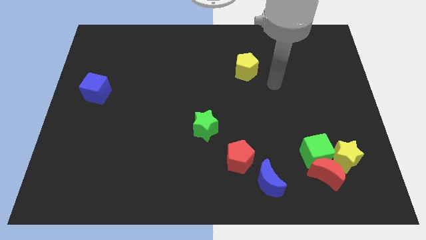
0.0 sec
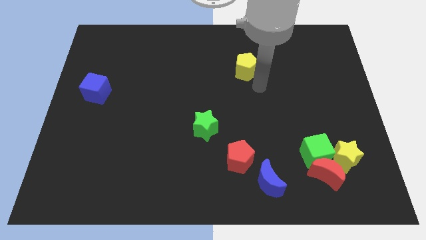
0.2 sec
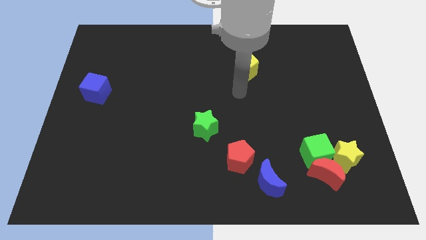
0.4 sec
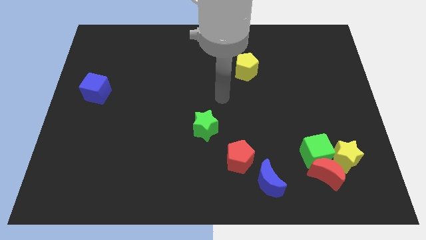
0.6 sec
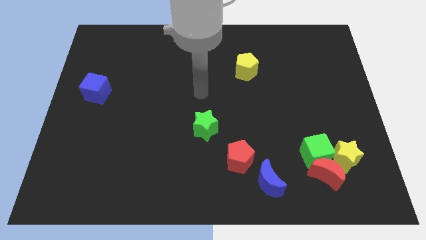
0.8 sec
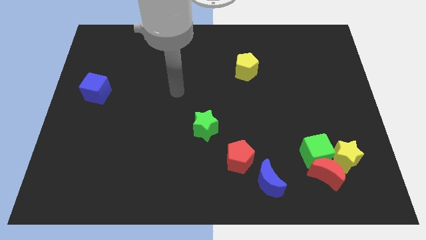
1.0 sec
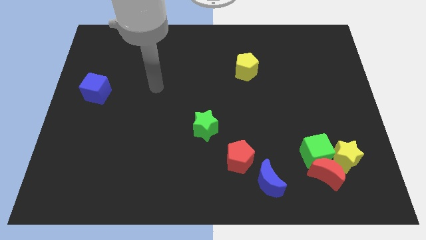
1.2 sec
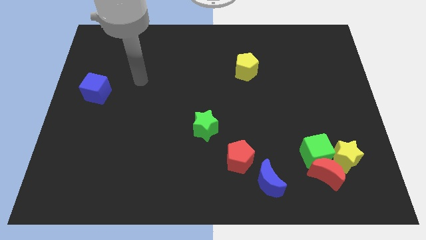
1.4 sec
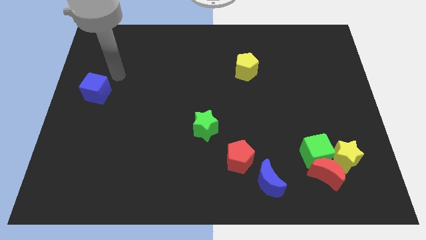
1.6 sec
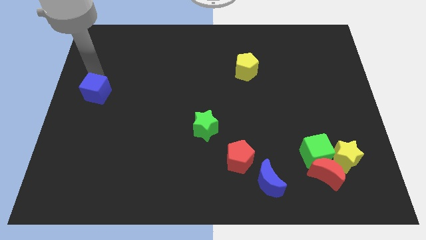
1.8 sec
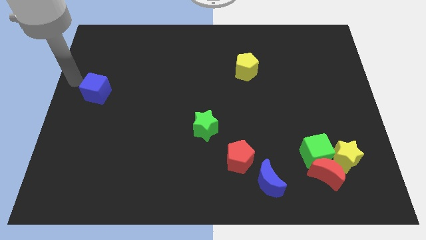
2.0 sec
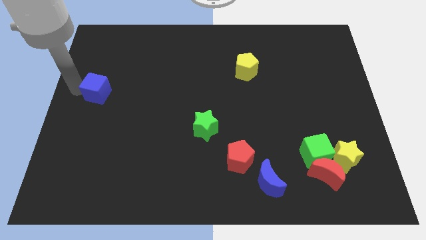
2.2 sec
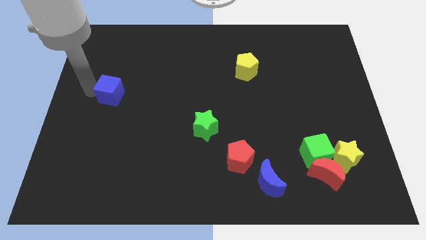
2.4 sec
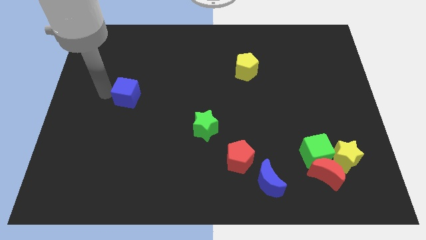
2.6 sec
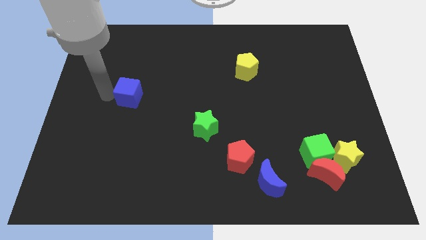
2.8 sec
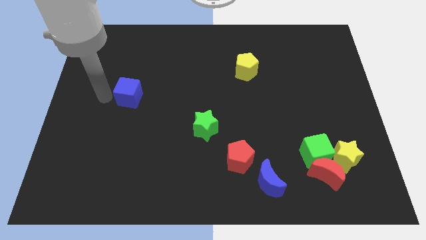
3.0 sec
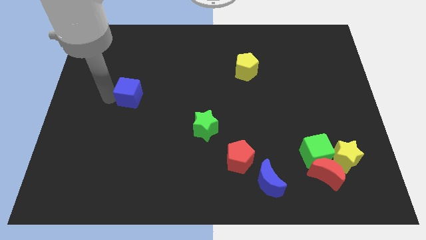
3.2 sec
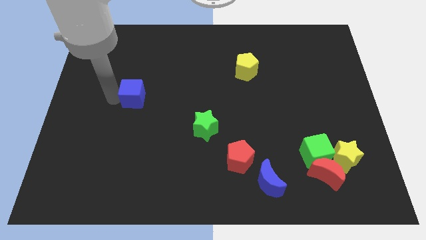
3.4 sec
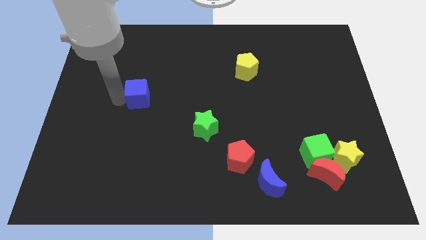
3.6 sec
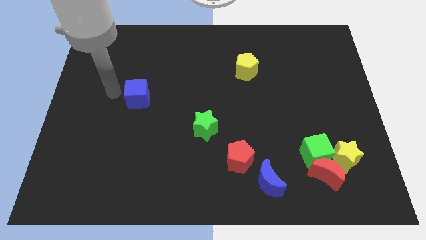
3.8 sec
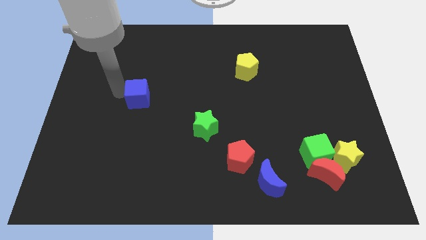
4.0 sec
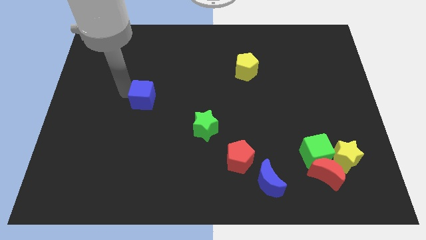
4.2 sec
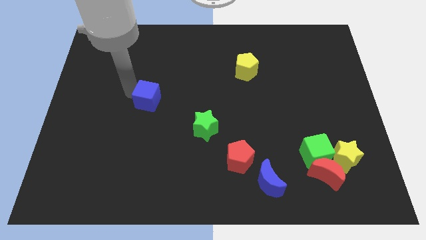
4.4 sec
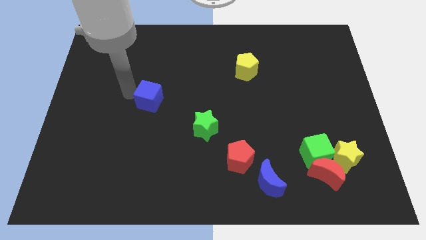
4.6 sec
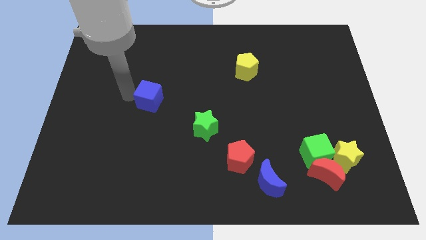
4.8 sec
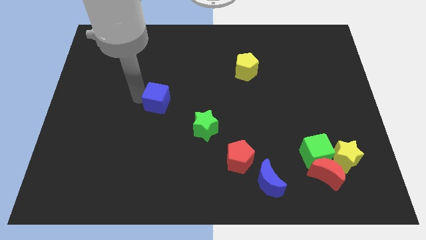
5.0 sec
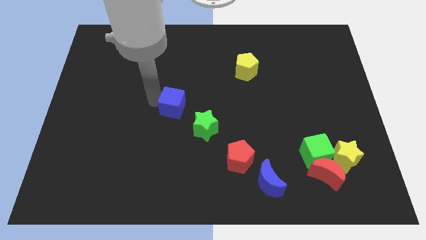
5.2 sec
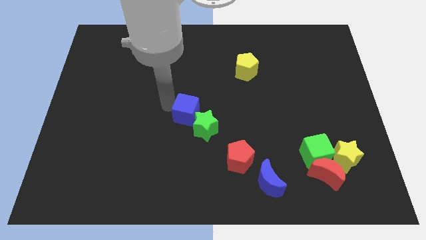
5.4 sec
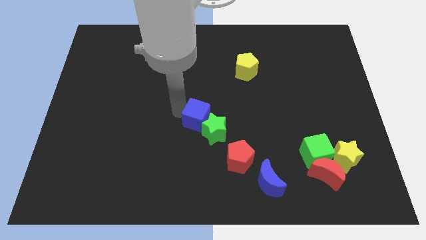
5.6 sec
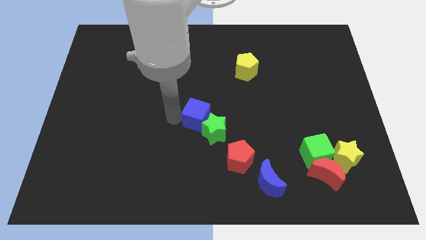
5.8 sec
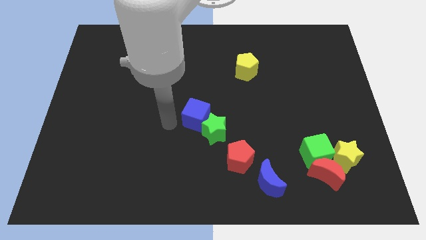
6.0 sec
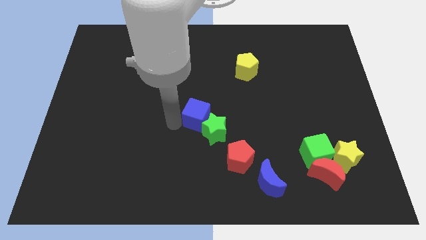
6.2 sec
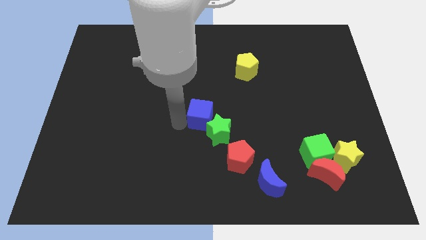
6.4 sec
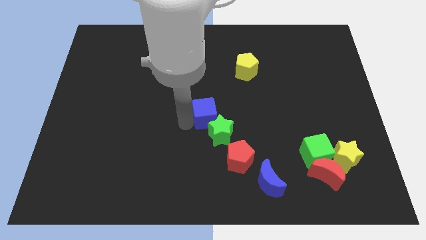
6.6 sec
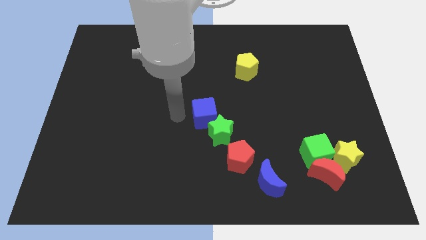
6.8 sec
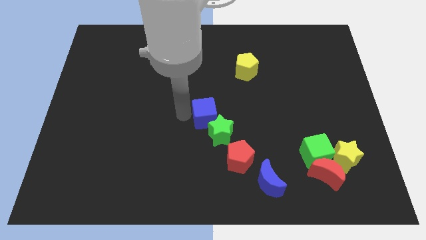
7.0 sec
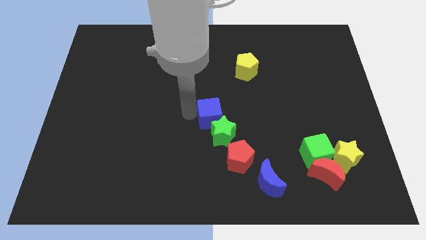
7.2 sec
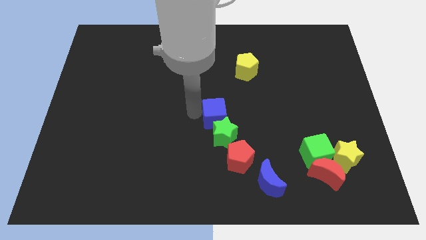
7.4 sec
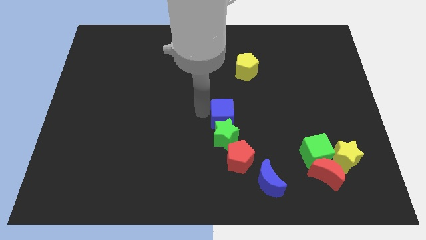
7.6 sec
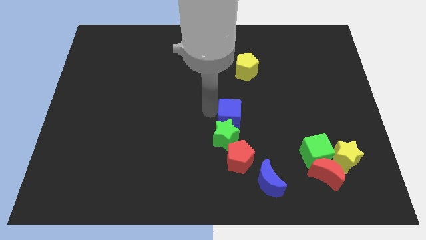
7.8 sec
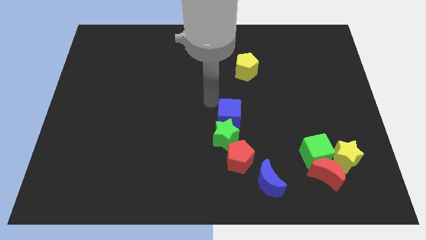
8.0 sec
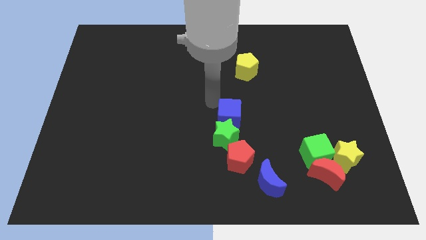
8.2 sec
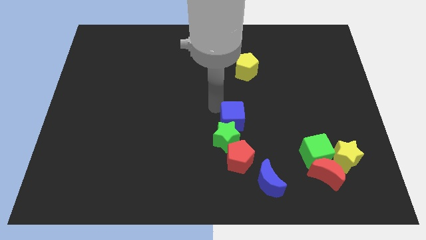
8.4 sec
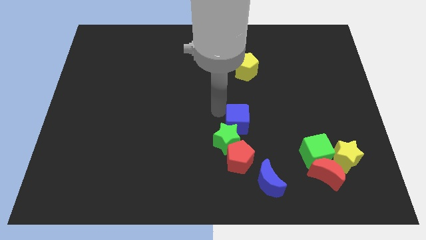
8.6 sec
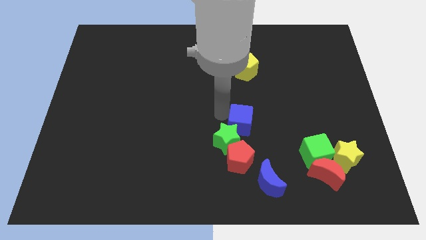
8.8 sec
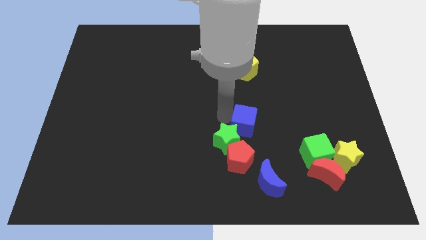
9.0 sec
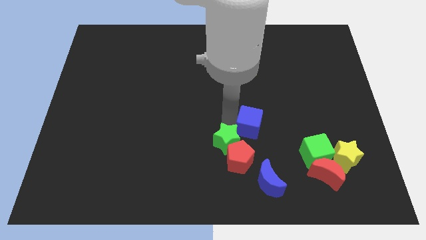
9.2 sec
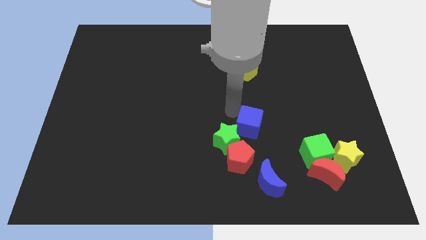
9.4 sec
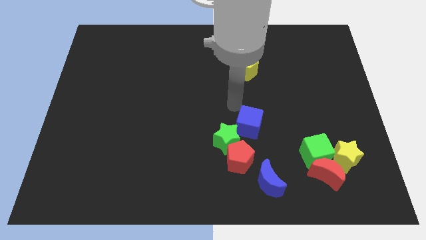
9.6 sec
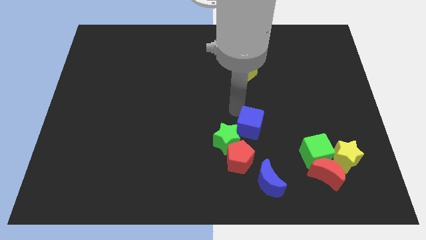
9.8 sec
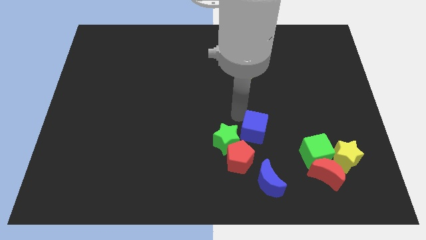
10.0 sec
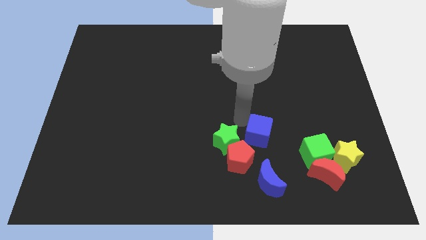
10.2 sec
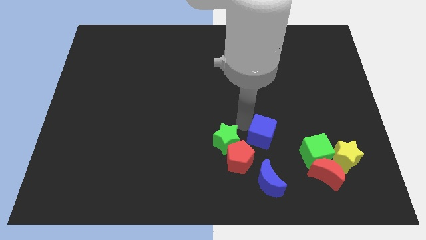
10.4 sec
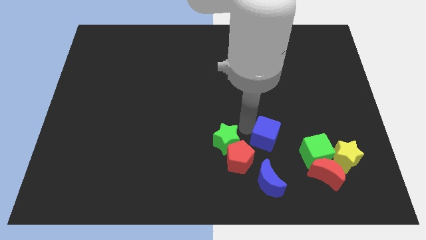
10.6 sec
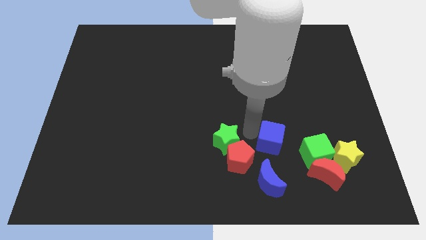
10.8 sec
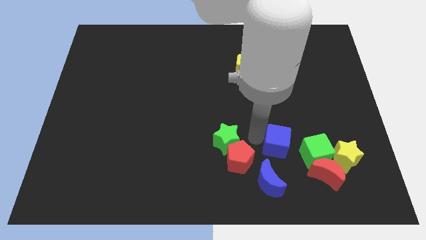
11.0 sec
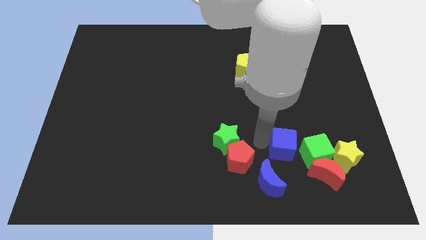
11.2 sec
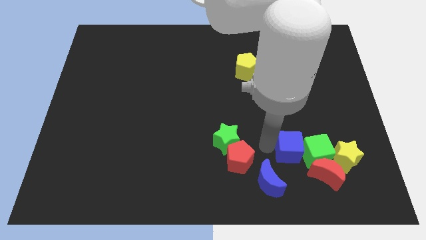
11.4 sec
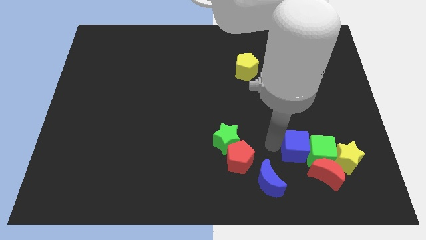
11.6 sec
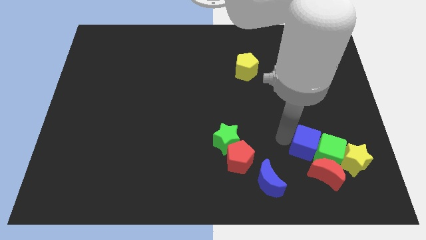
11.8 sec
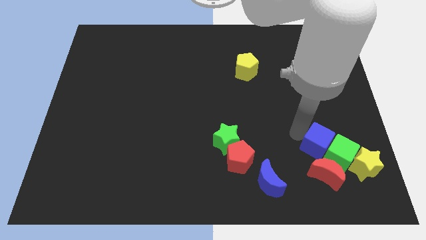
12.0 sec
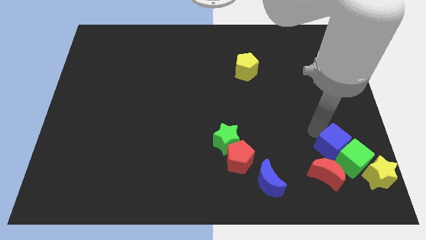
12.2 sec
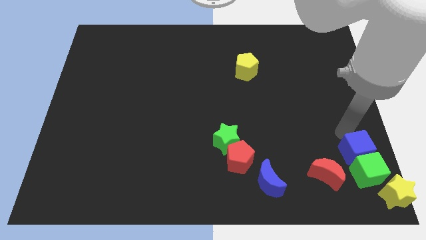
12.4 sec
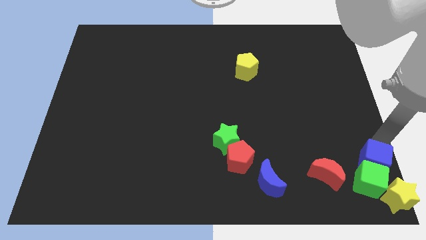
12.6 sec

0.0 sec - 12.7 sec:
move the blue cube to the bottom right

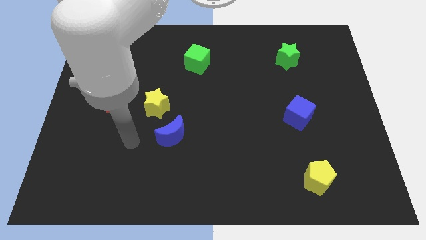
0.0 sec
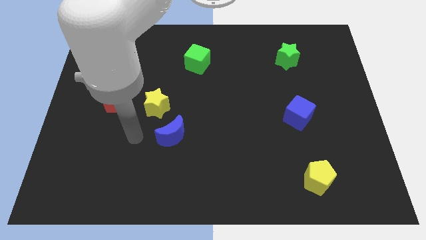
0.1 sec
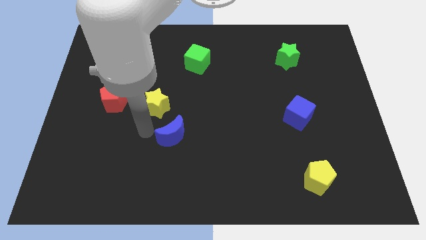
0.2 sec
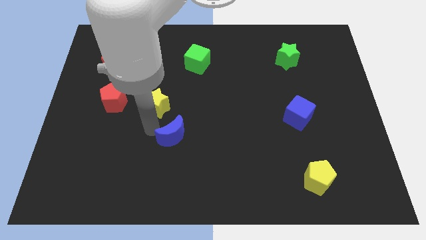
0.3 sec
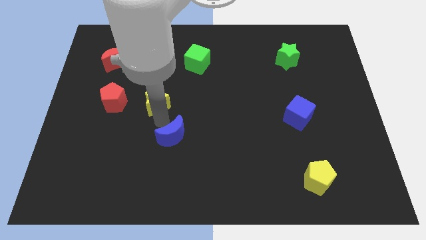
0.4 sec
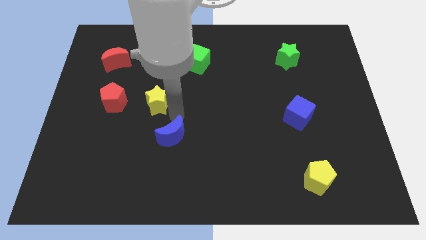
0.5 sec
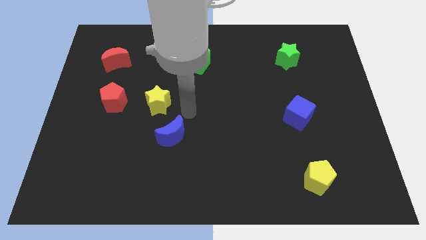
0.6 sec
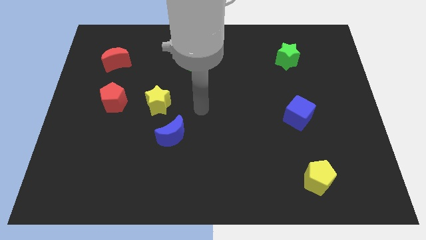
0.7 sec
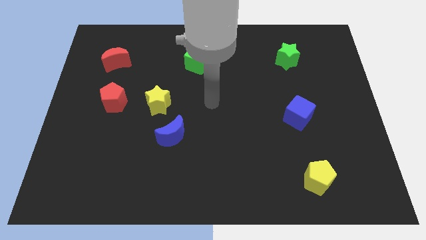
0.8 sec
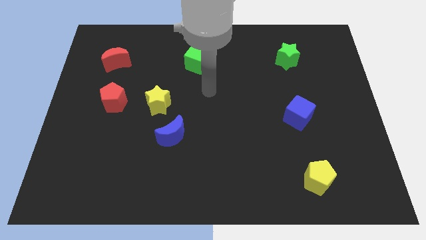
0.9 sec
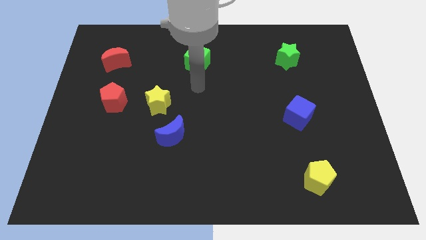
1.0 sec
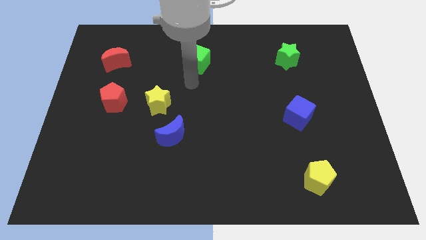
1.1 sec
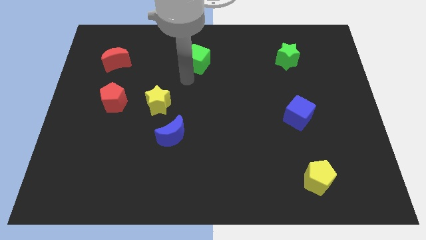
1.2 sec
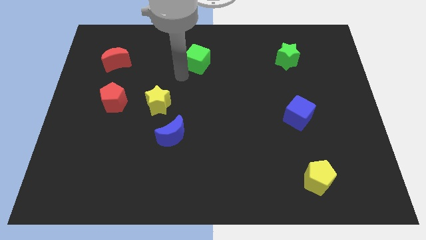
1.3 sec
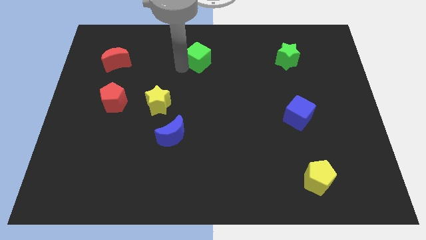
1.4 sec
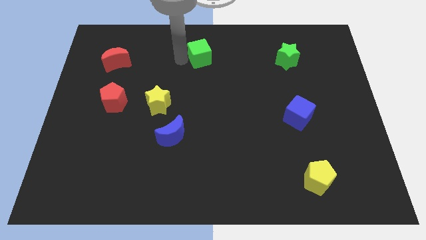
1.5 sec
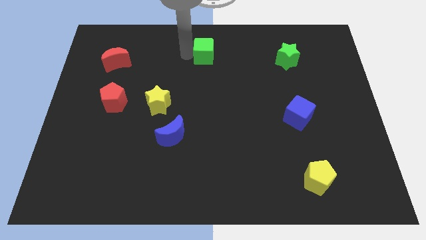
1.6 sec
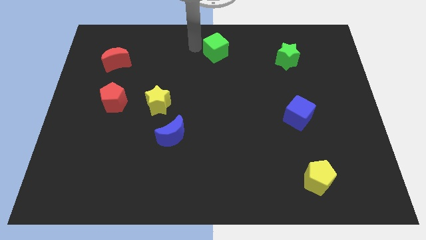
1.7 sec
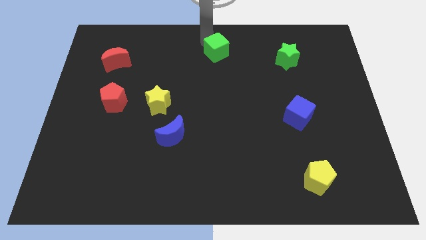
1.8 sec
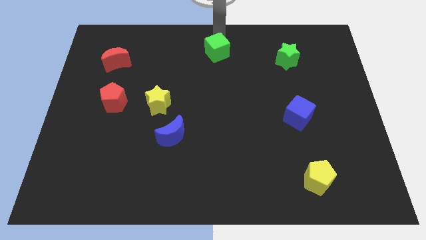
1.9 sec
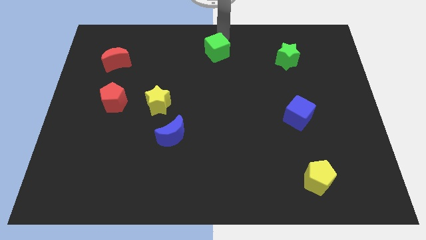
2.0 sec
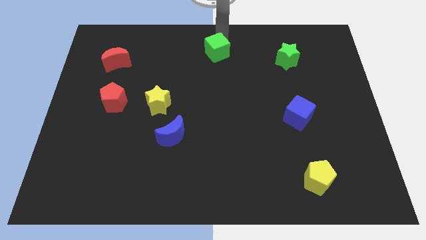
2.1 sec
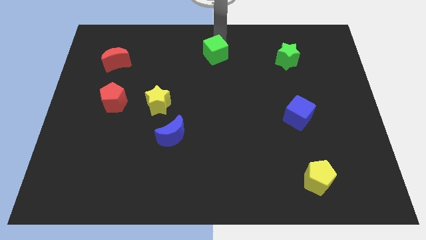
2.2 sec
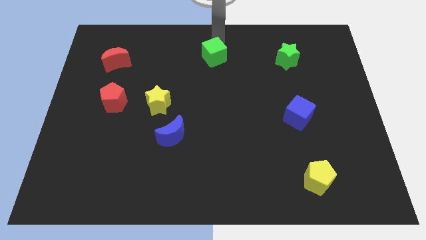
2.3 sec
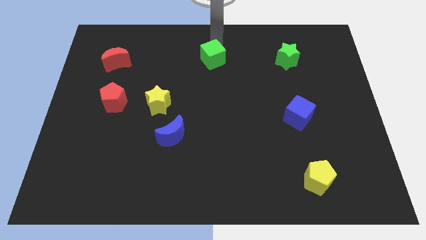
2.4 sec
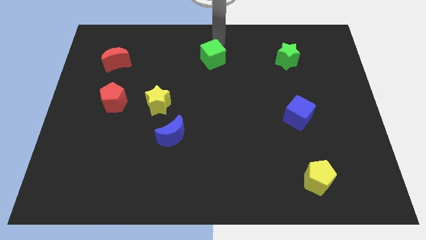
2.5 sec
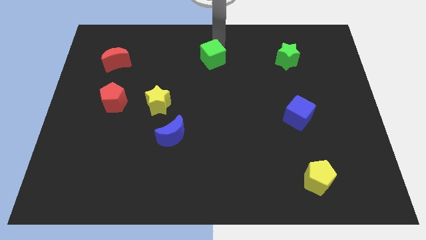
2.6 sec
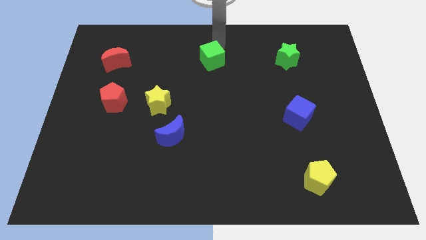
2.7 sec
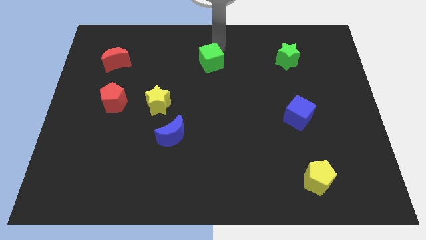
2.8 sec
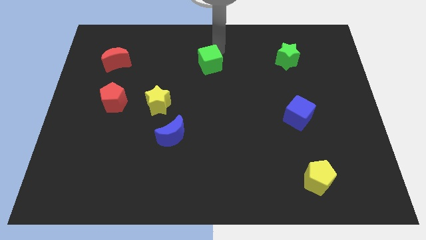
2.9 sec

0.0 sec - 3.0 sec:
move the green cube to the middle
